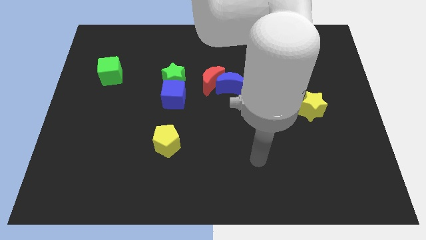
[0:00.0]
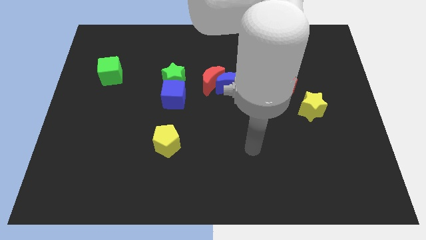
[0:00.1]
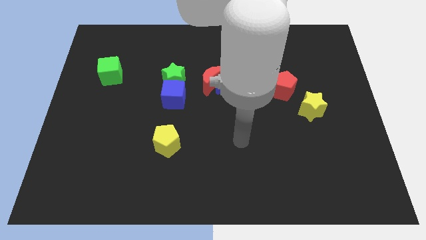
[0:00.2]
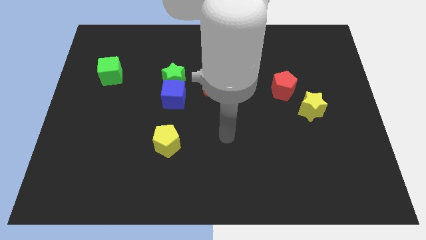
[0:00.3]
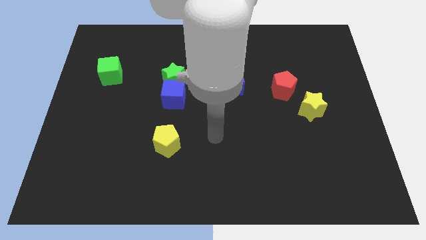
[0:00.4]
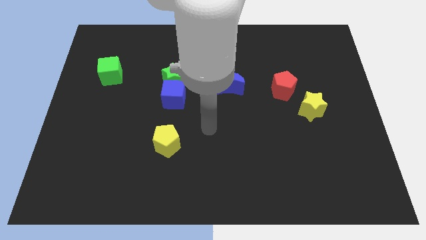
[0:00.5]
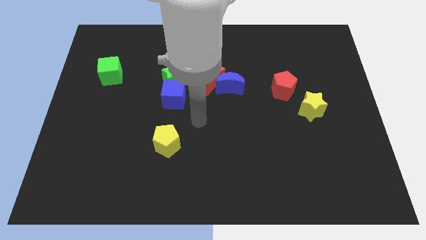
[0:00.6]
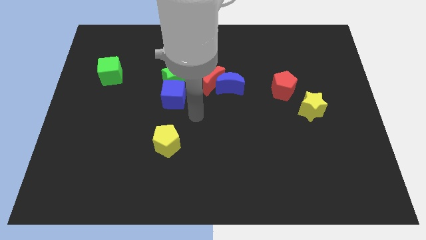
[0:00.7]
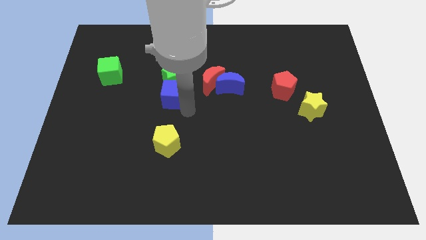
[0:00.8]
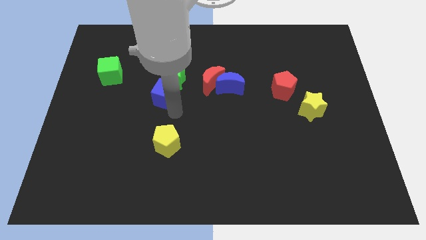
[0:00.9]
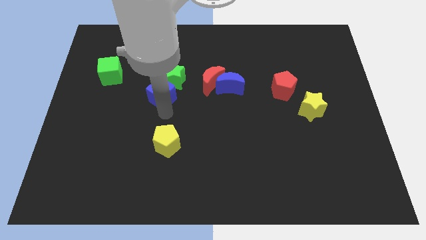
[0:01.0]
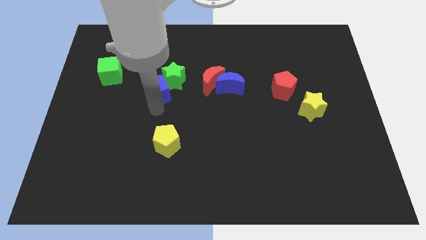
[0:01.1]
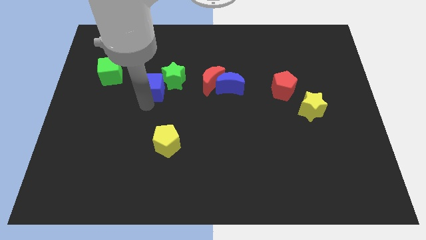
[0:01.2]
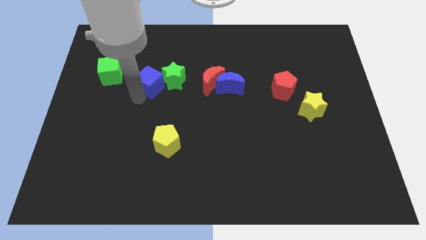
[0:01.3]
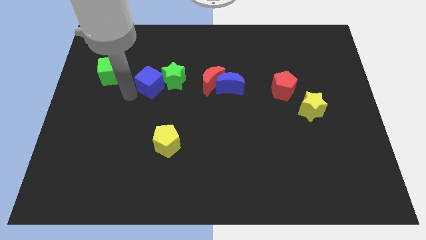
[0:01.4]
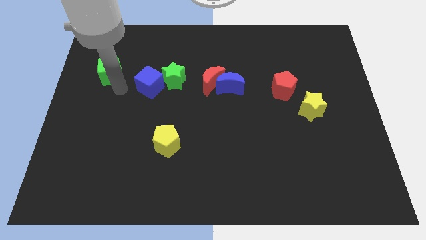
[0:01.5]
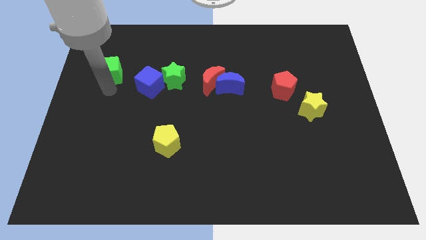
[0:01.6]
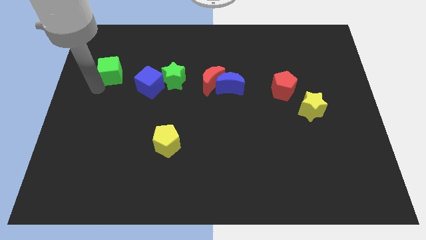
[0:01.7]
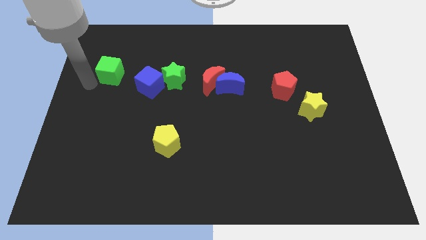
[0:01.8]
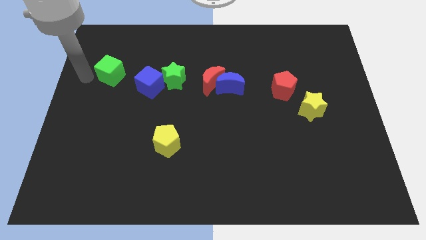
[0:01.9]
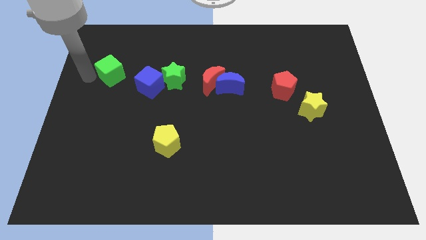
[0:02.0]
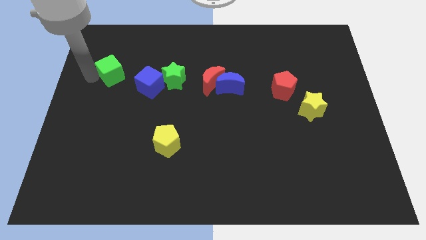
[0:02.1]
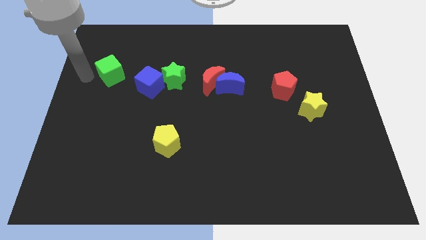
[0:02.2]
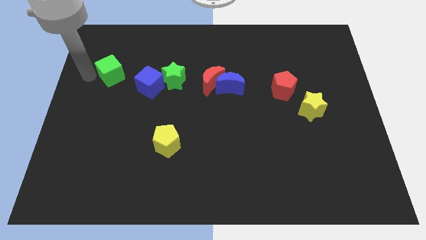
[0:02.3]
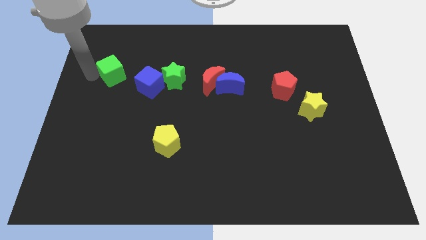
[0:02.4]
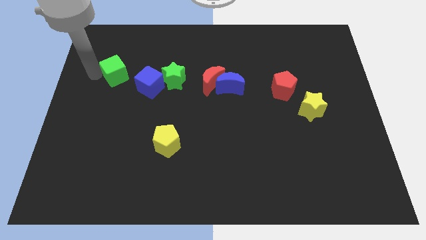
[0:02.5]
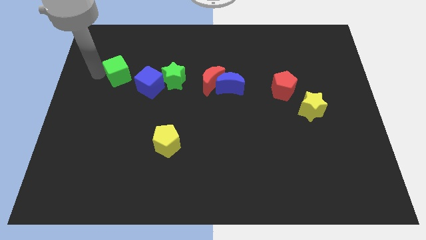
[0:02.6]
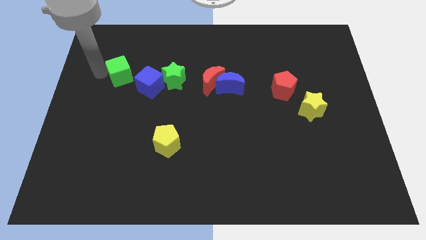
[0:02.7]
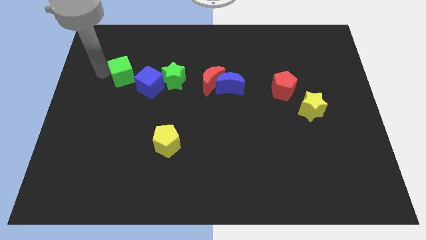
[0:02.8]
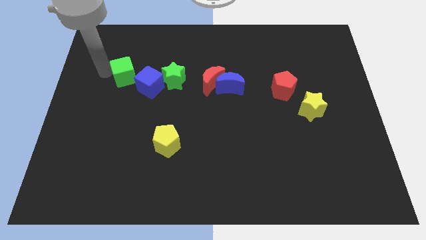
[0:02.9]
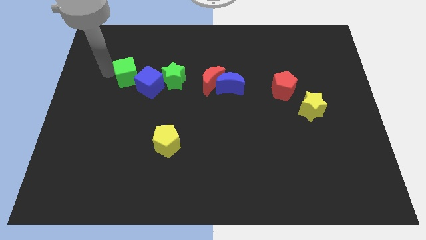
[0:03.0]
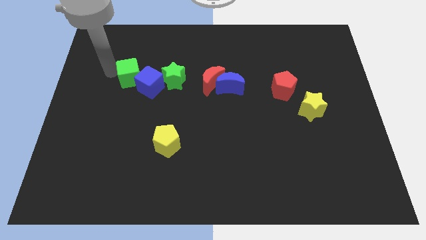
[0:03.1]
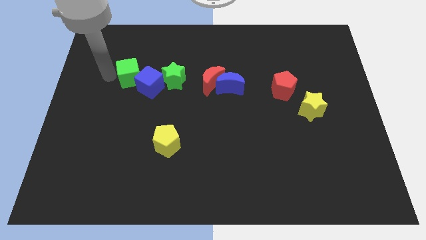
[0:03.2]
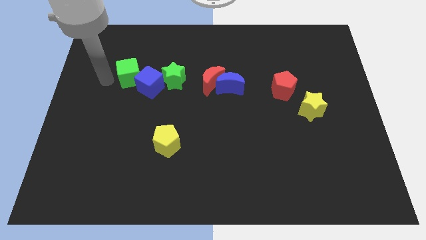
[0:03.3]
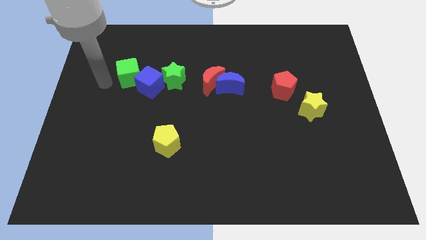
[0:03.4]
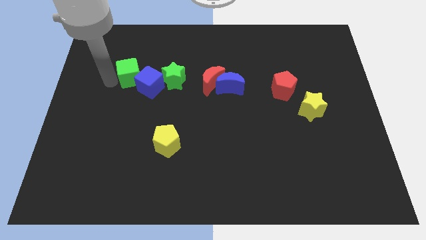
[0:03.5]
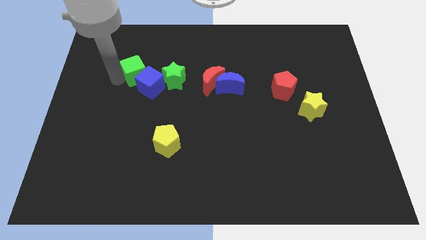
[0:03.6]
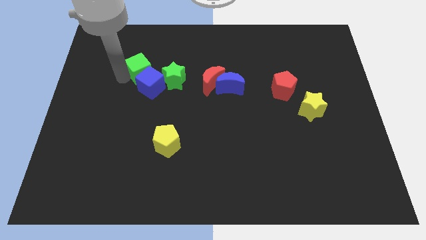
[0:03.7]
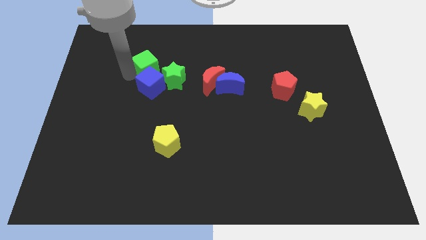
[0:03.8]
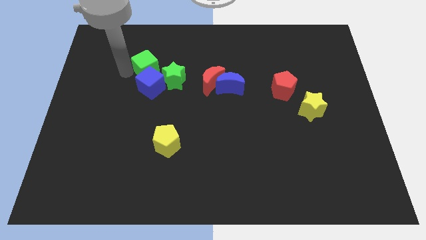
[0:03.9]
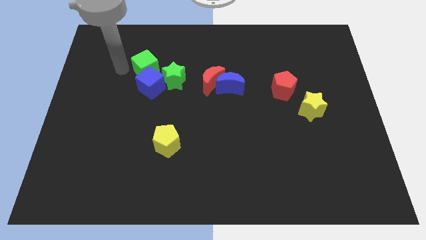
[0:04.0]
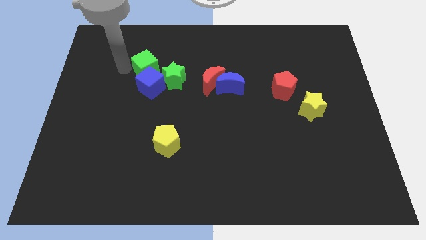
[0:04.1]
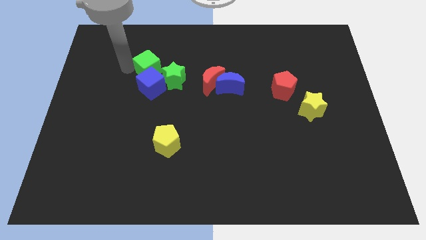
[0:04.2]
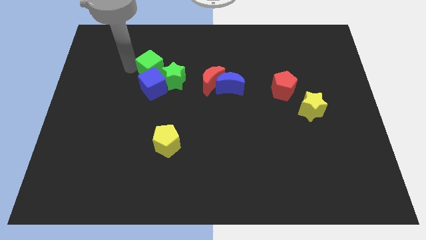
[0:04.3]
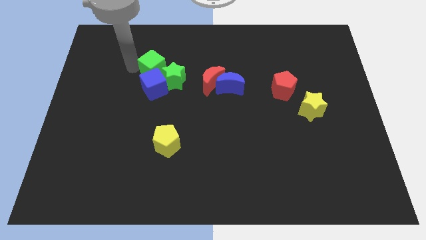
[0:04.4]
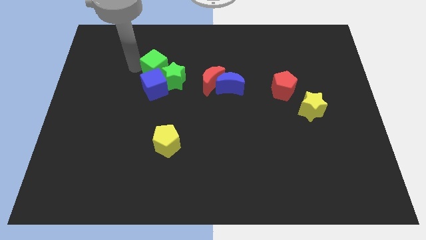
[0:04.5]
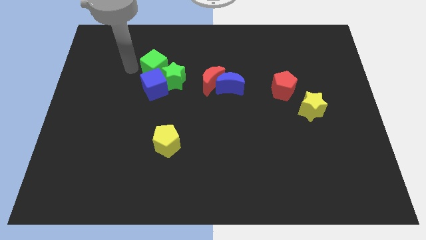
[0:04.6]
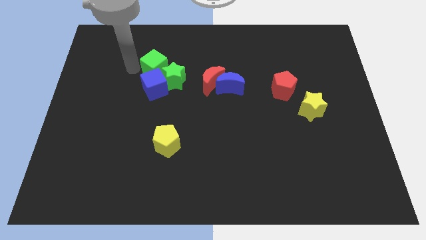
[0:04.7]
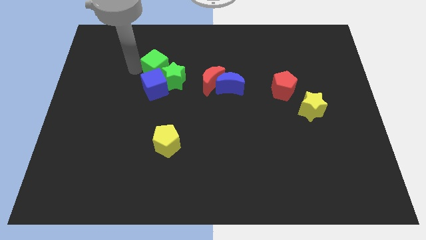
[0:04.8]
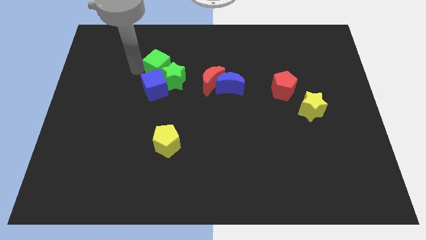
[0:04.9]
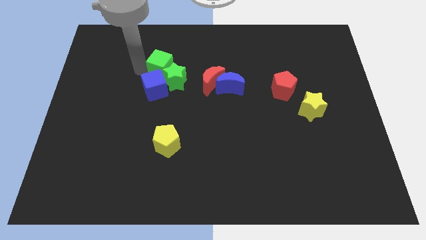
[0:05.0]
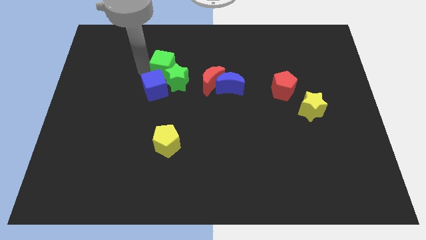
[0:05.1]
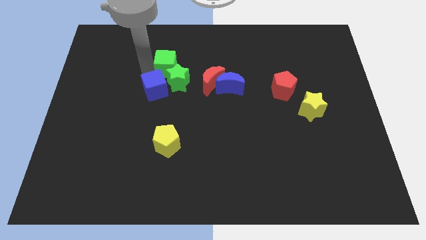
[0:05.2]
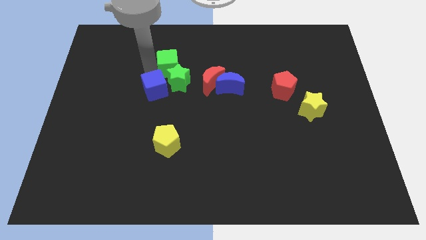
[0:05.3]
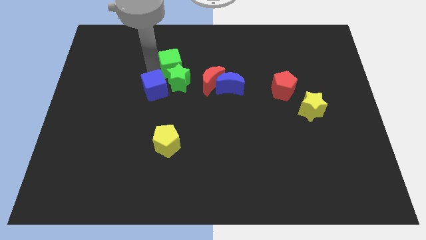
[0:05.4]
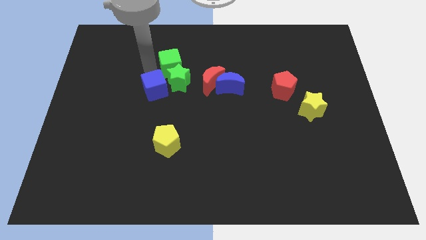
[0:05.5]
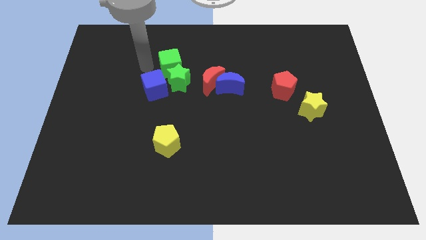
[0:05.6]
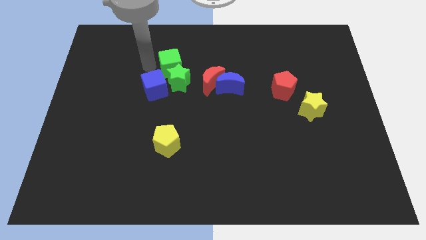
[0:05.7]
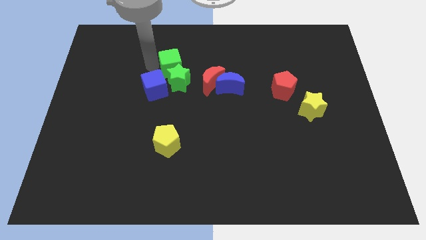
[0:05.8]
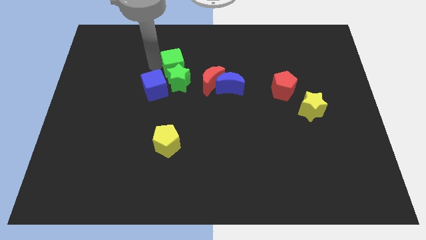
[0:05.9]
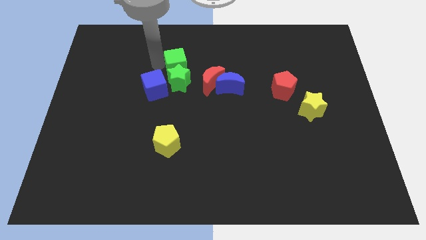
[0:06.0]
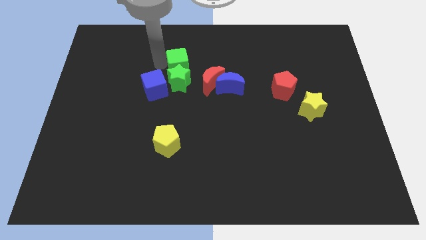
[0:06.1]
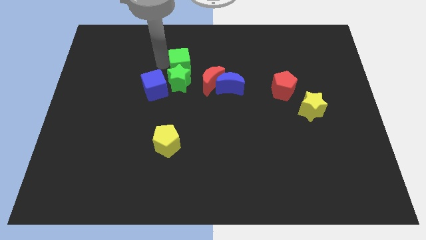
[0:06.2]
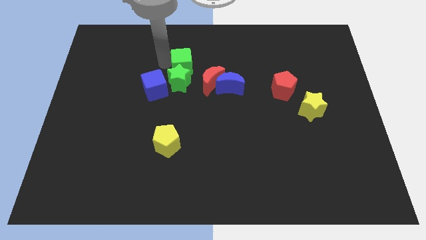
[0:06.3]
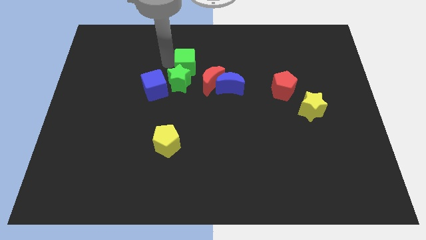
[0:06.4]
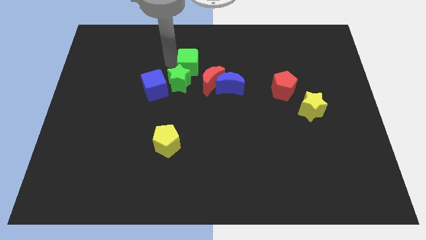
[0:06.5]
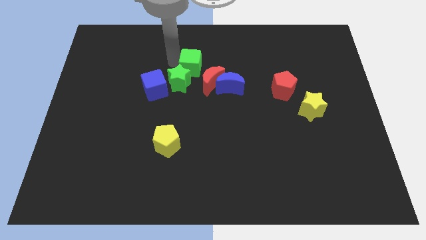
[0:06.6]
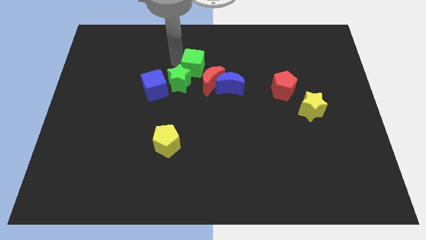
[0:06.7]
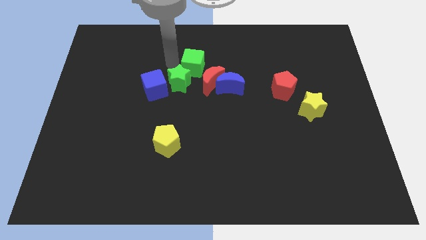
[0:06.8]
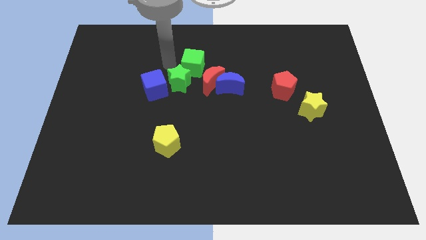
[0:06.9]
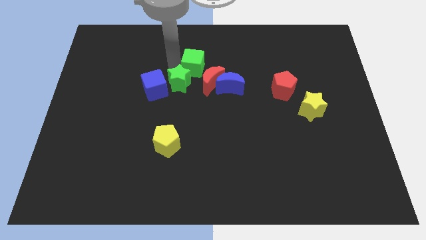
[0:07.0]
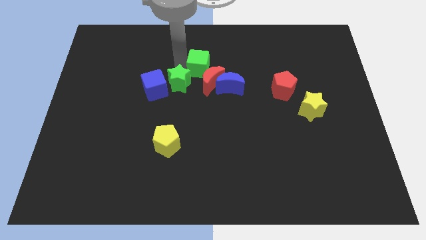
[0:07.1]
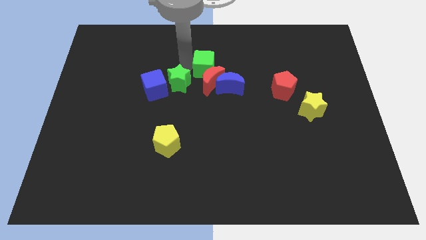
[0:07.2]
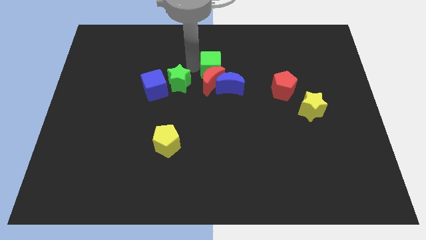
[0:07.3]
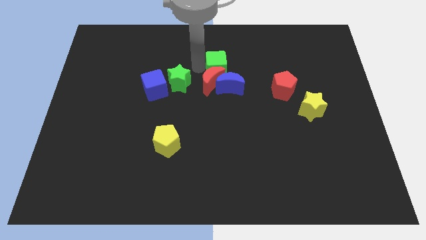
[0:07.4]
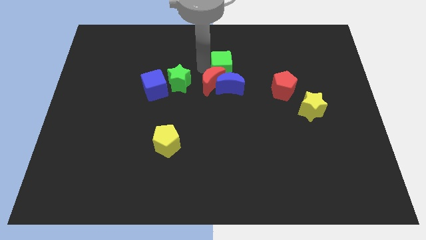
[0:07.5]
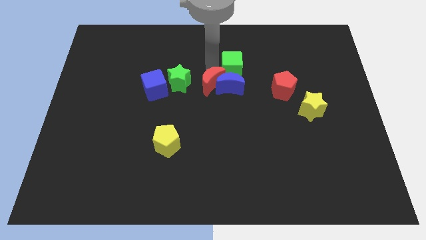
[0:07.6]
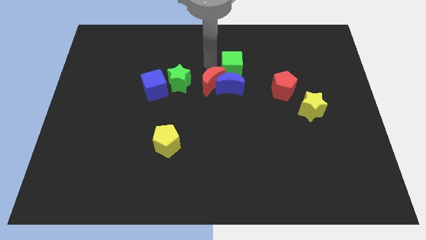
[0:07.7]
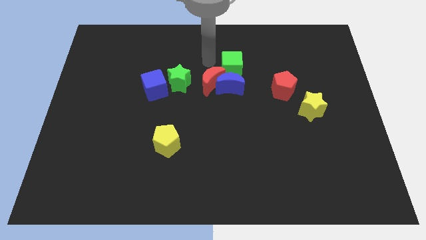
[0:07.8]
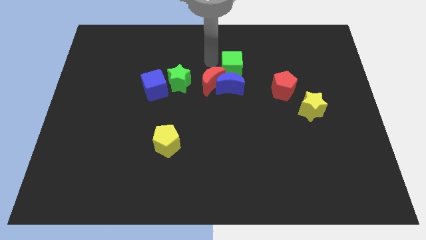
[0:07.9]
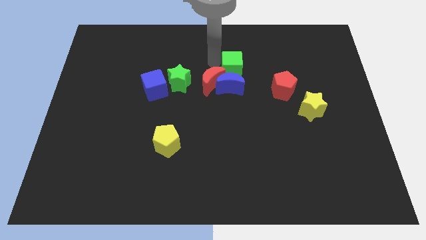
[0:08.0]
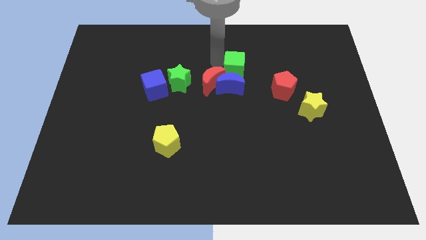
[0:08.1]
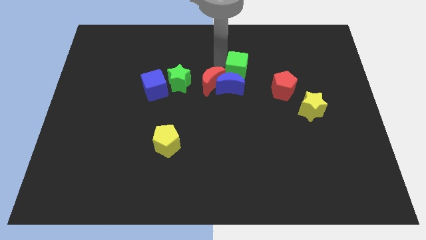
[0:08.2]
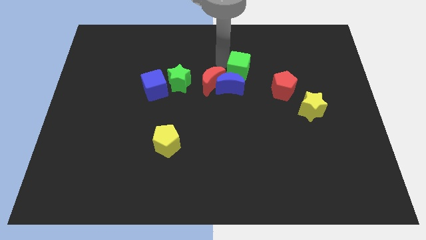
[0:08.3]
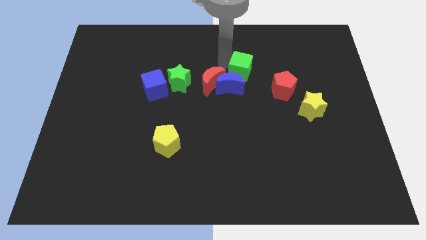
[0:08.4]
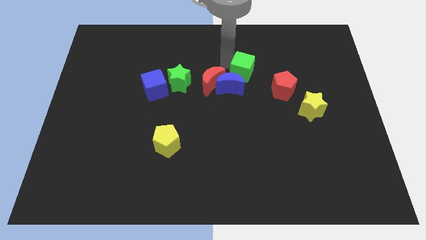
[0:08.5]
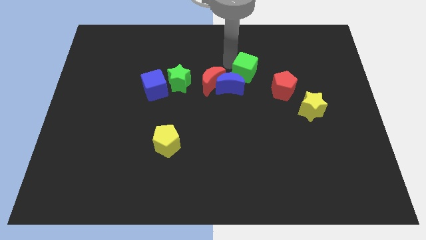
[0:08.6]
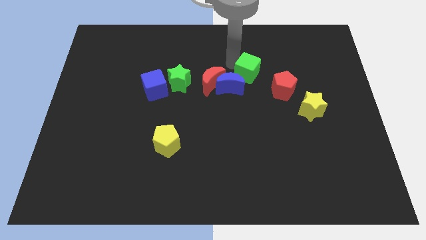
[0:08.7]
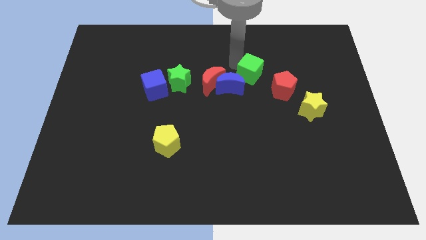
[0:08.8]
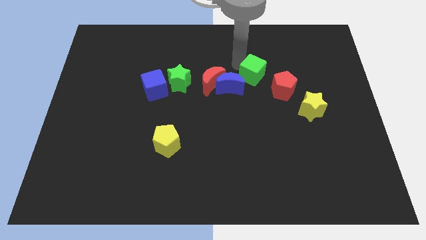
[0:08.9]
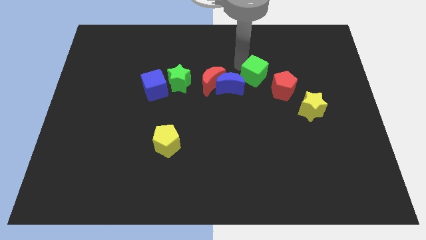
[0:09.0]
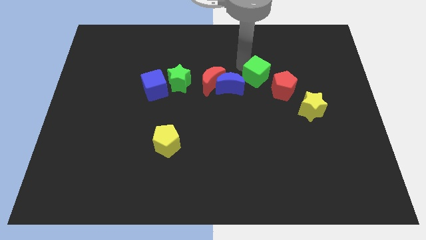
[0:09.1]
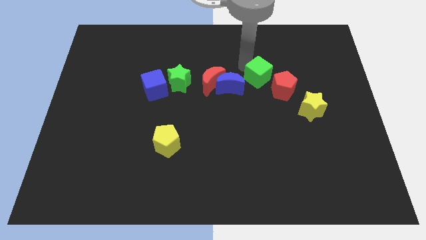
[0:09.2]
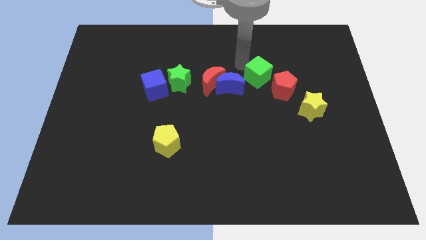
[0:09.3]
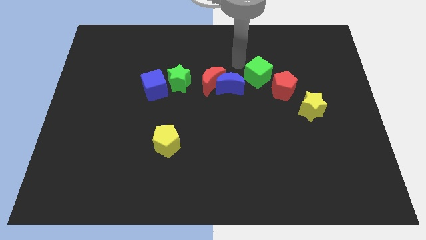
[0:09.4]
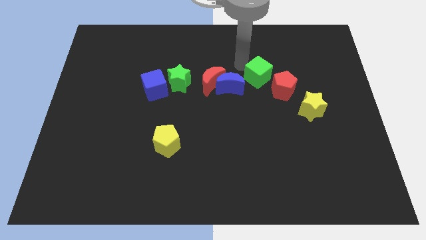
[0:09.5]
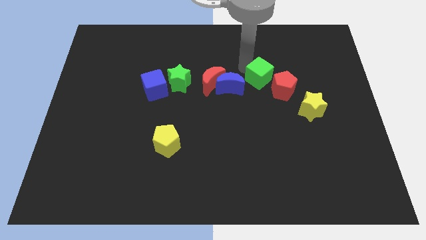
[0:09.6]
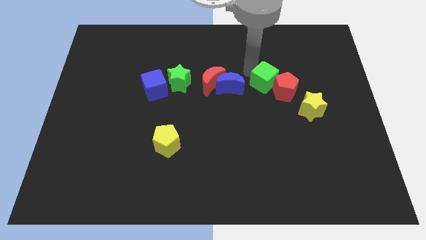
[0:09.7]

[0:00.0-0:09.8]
move the green cube close to the red pentagon
